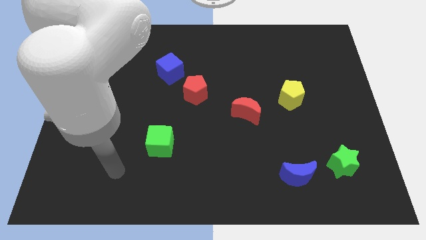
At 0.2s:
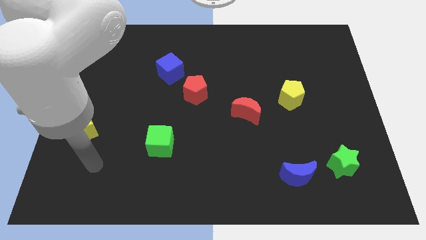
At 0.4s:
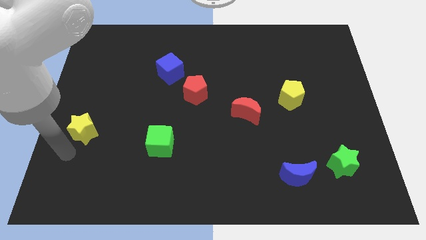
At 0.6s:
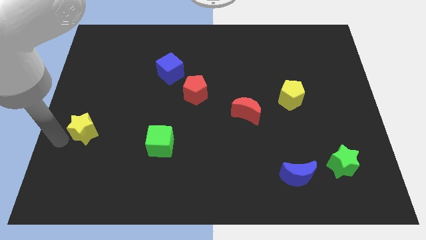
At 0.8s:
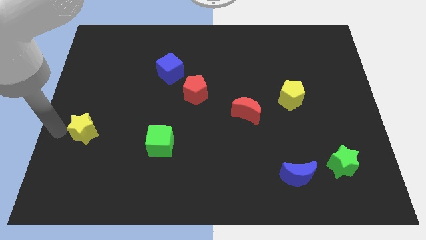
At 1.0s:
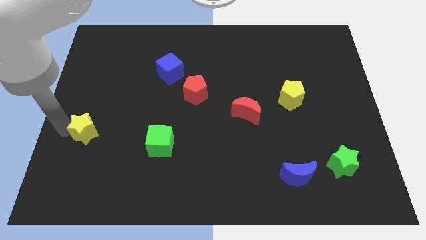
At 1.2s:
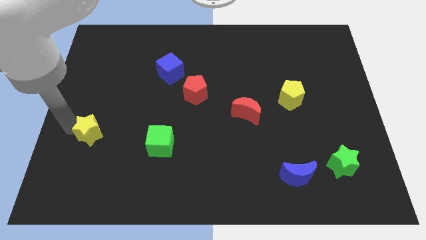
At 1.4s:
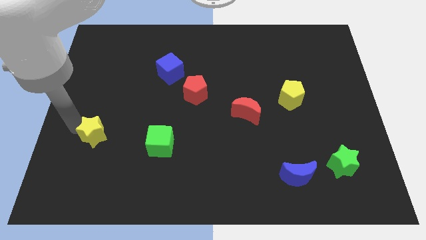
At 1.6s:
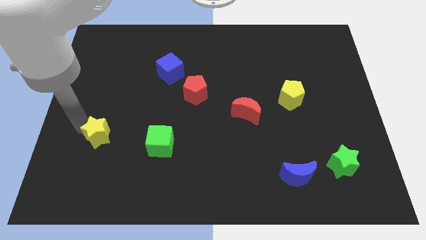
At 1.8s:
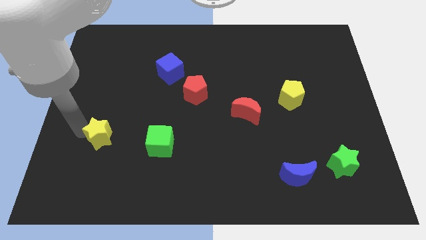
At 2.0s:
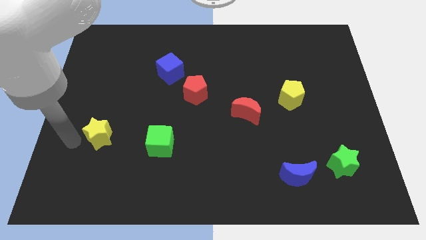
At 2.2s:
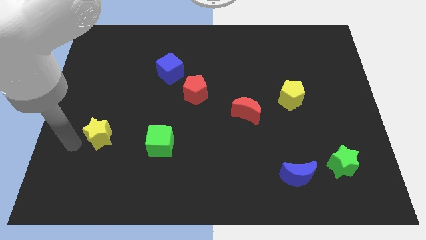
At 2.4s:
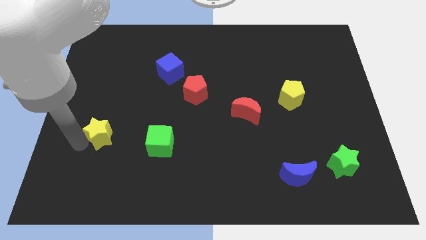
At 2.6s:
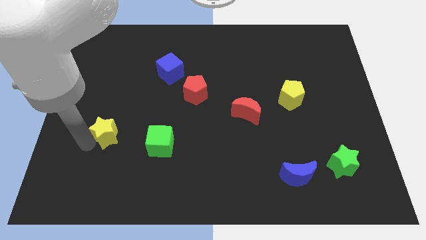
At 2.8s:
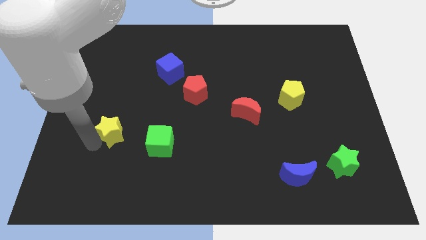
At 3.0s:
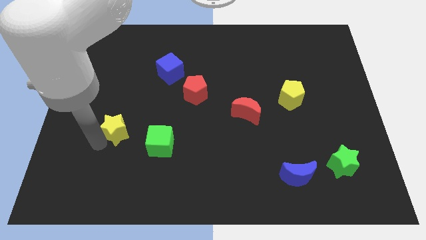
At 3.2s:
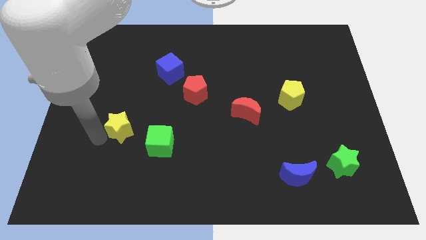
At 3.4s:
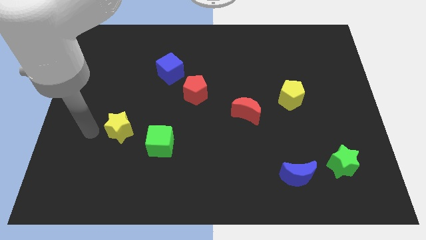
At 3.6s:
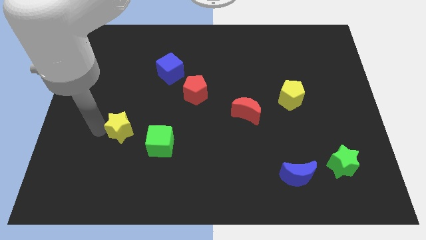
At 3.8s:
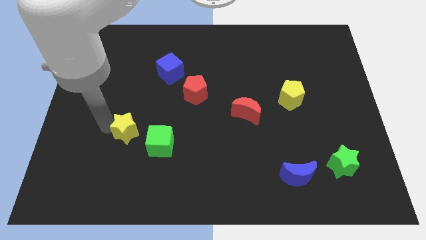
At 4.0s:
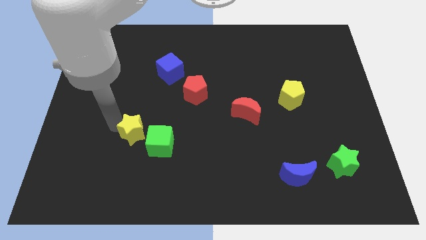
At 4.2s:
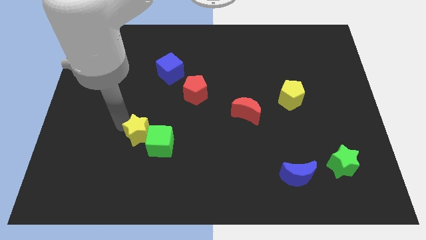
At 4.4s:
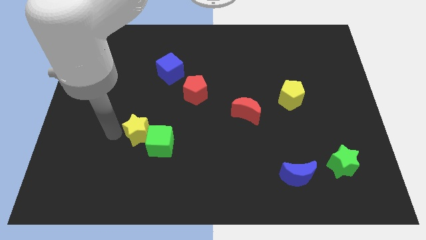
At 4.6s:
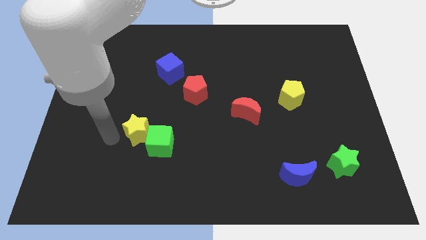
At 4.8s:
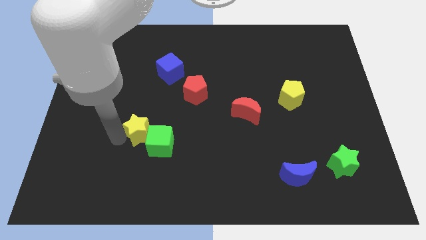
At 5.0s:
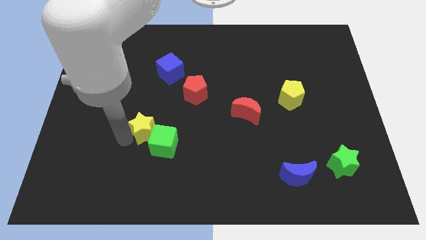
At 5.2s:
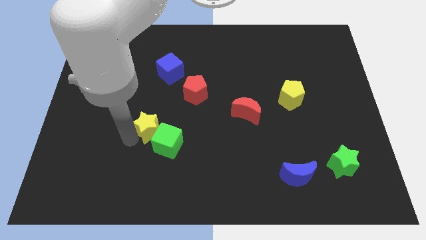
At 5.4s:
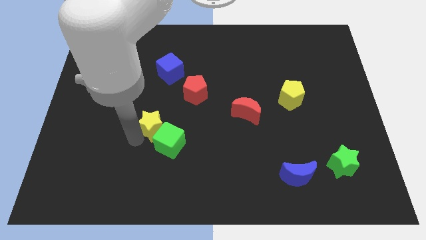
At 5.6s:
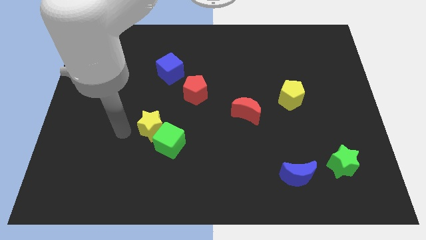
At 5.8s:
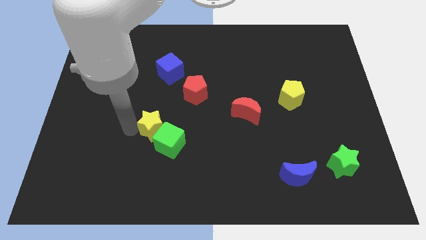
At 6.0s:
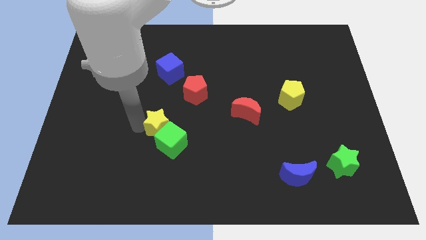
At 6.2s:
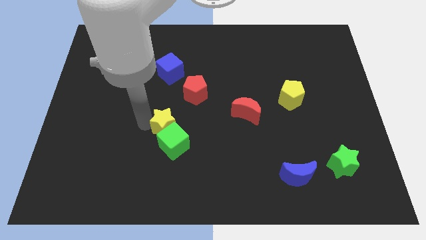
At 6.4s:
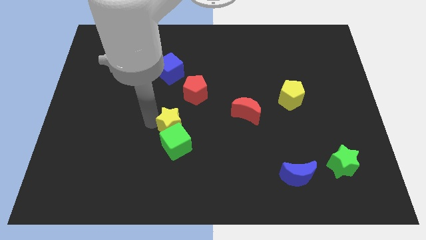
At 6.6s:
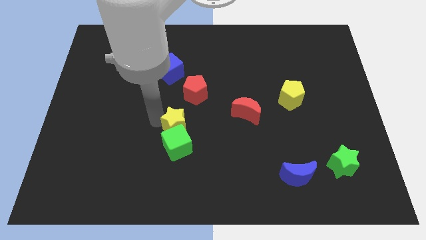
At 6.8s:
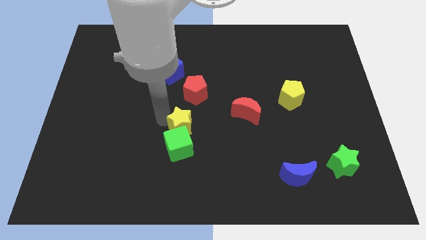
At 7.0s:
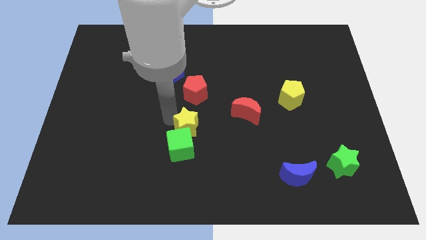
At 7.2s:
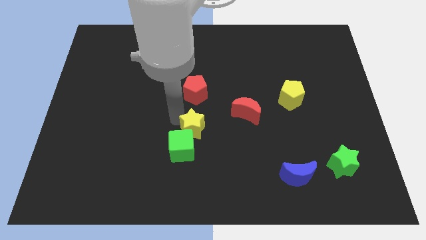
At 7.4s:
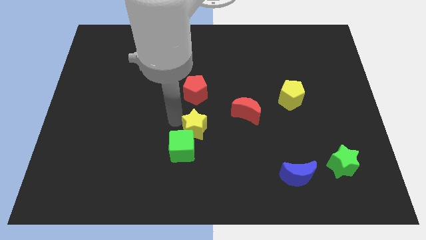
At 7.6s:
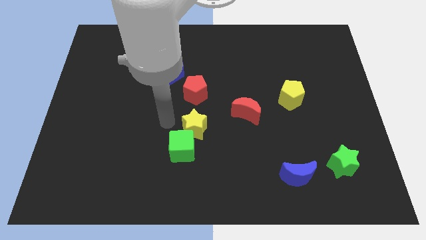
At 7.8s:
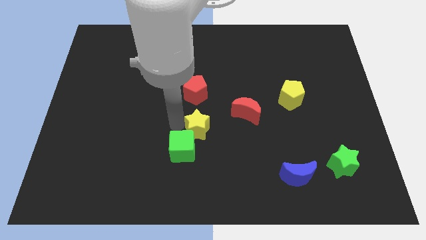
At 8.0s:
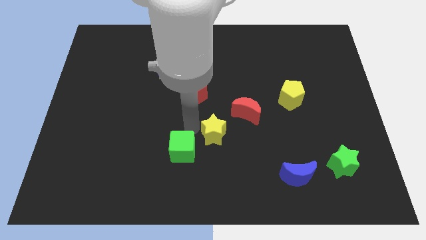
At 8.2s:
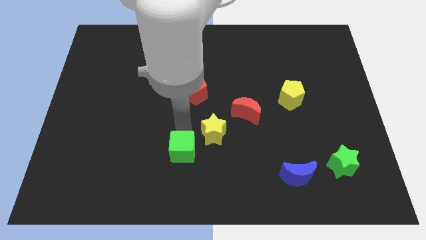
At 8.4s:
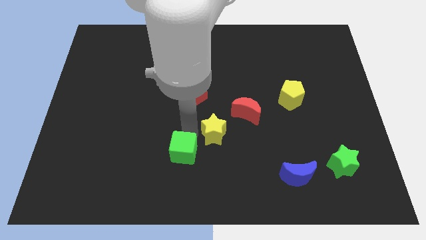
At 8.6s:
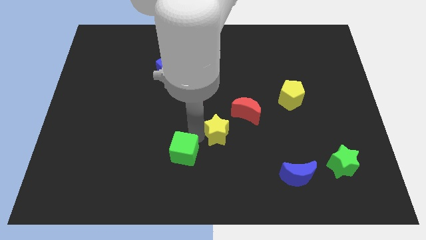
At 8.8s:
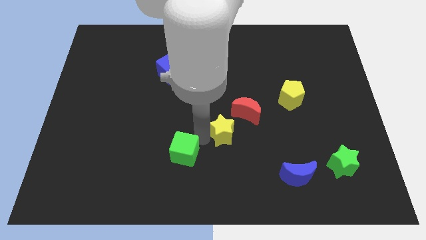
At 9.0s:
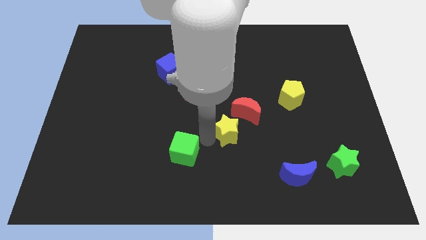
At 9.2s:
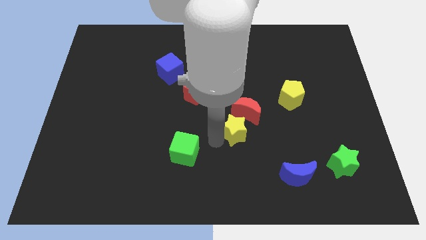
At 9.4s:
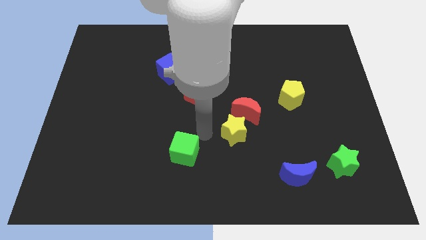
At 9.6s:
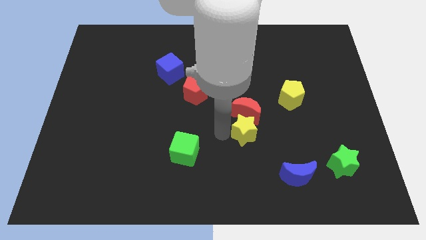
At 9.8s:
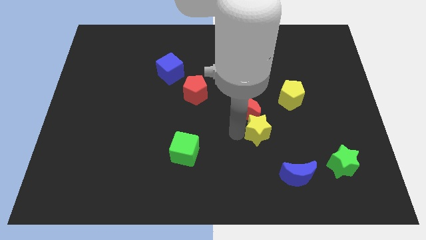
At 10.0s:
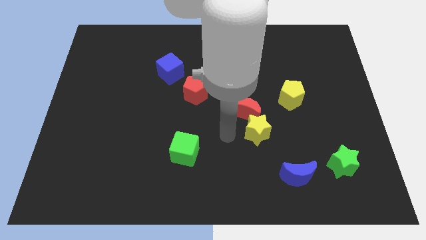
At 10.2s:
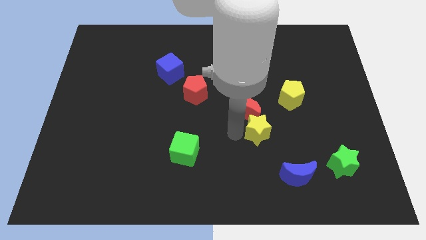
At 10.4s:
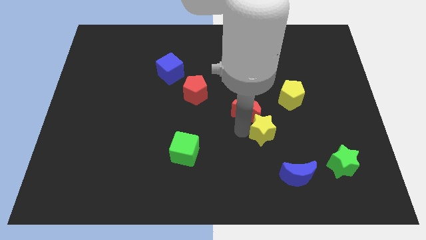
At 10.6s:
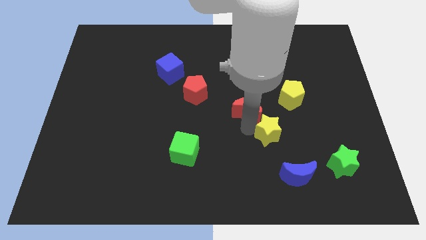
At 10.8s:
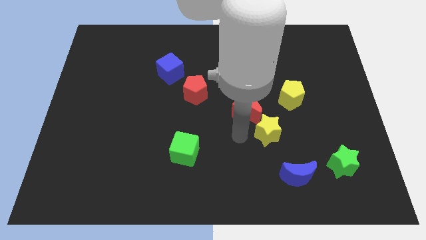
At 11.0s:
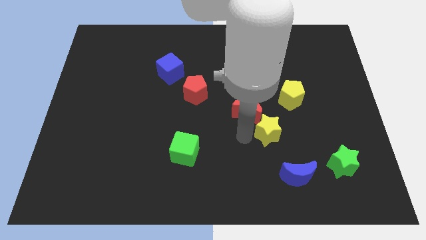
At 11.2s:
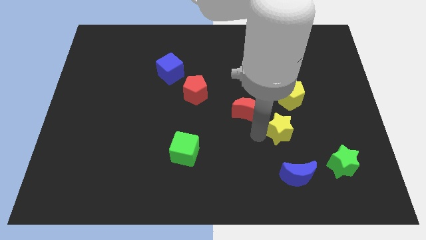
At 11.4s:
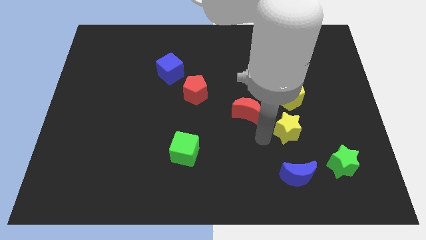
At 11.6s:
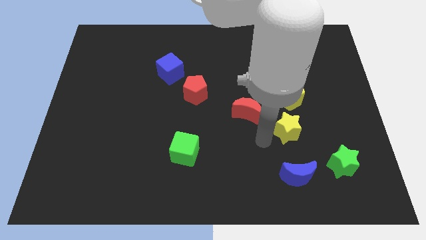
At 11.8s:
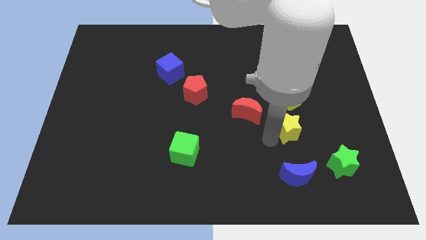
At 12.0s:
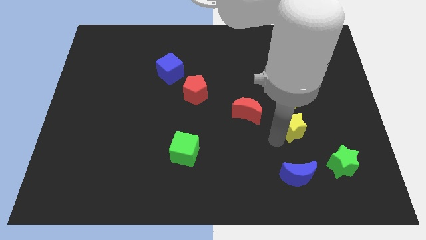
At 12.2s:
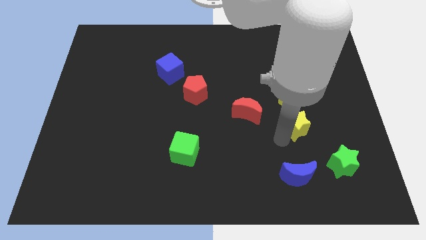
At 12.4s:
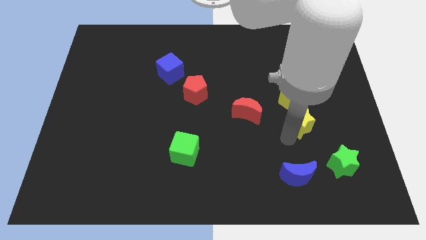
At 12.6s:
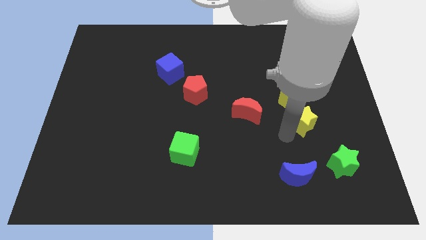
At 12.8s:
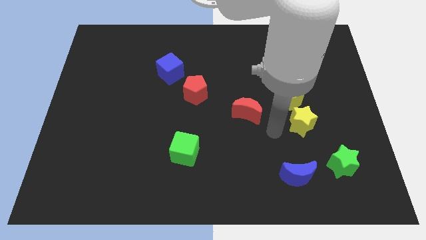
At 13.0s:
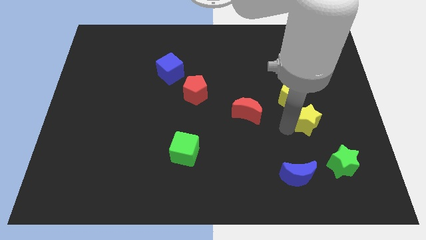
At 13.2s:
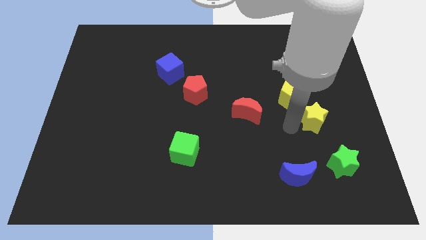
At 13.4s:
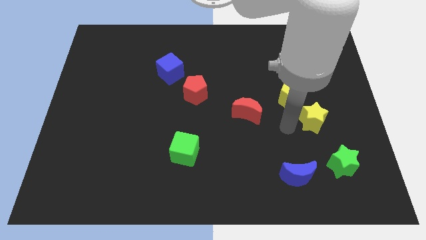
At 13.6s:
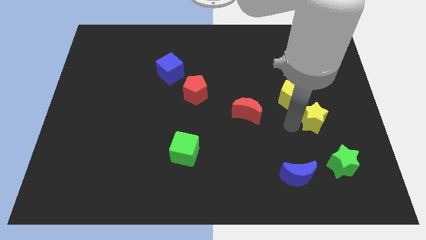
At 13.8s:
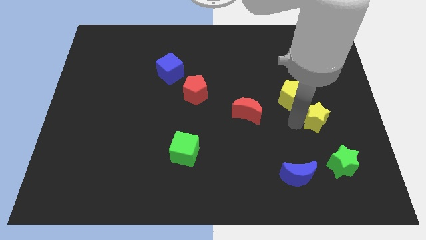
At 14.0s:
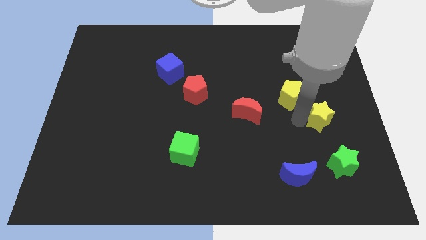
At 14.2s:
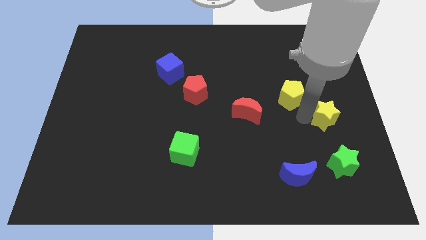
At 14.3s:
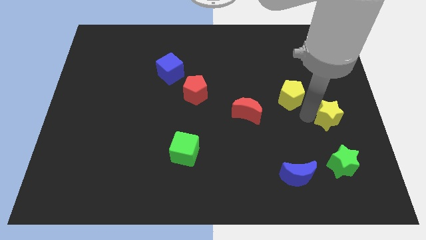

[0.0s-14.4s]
push the yellow star to the right side

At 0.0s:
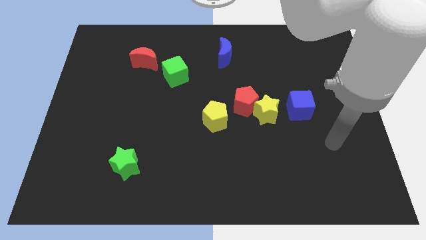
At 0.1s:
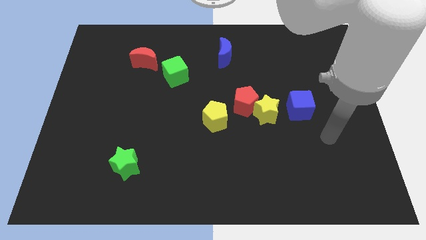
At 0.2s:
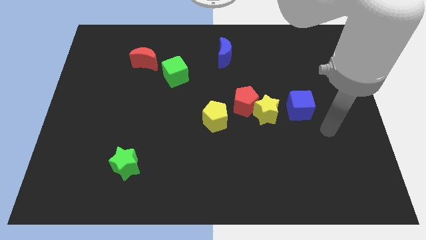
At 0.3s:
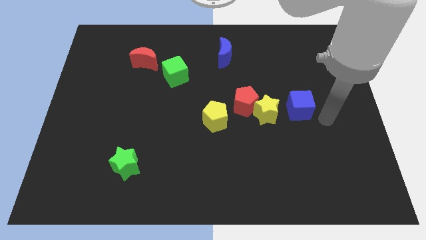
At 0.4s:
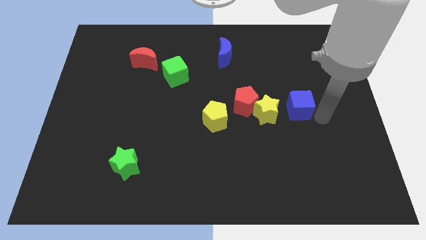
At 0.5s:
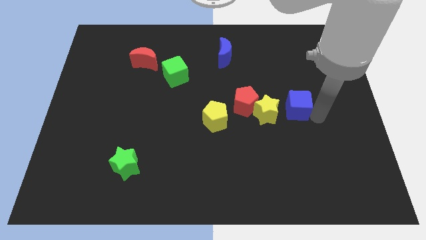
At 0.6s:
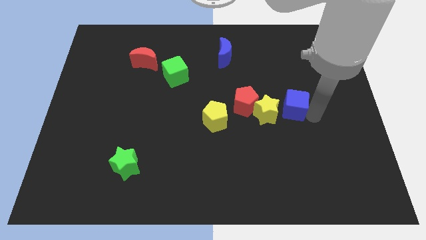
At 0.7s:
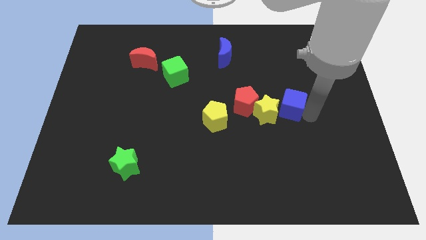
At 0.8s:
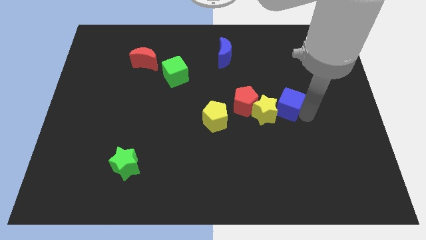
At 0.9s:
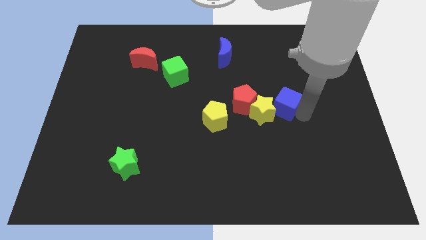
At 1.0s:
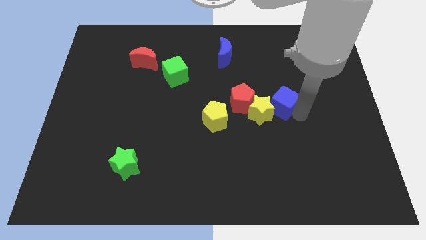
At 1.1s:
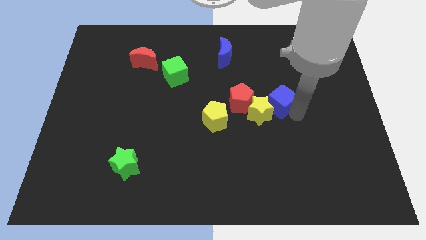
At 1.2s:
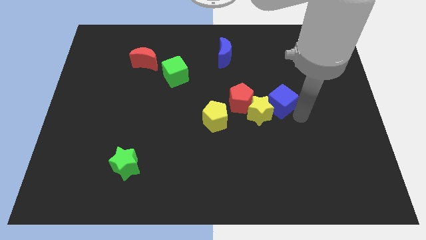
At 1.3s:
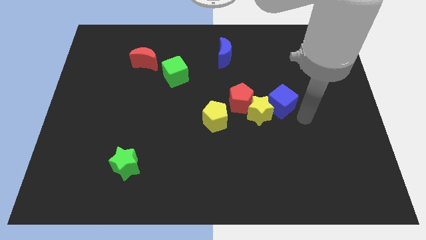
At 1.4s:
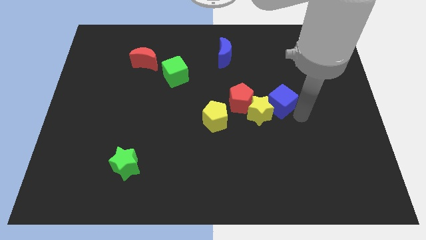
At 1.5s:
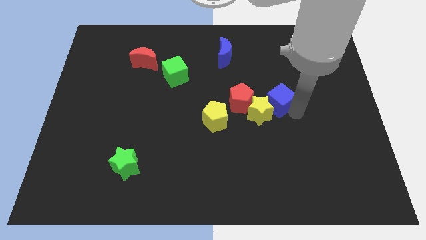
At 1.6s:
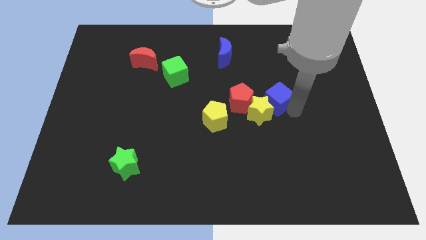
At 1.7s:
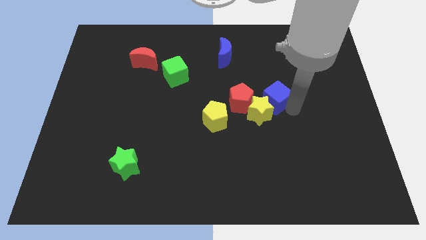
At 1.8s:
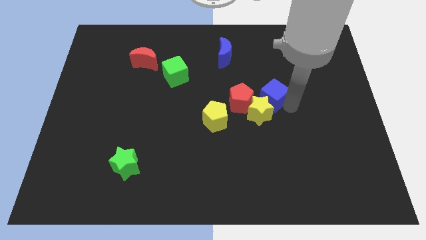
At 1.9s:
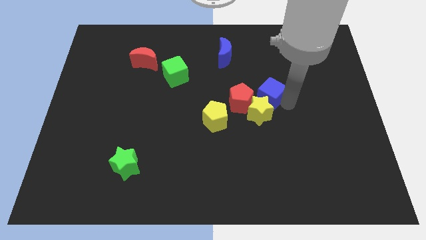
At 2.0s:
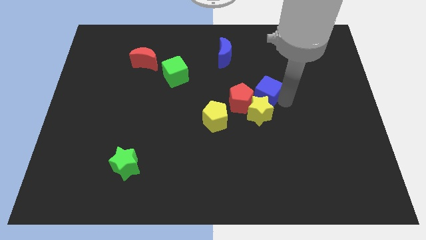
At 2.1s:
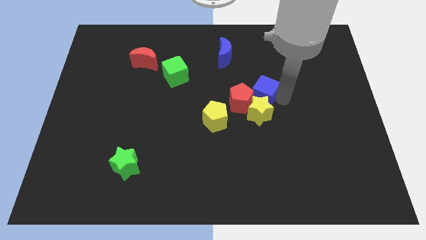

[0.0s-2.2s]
push the blue cube to the center of the board
